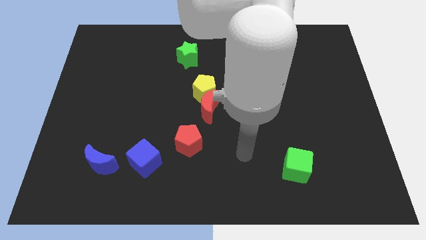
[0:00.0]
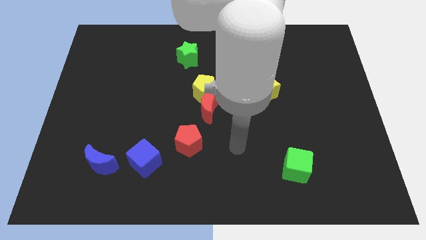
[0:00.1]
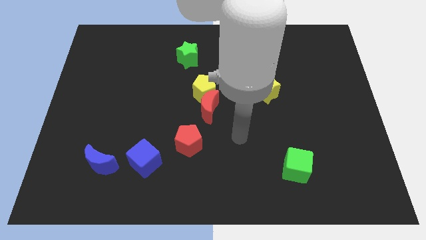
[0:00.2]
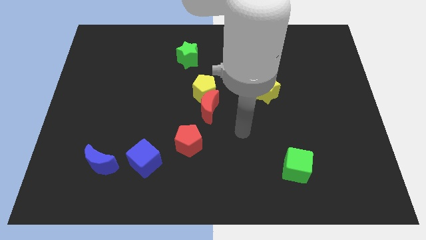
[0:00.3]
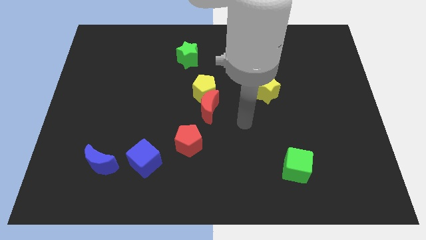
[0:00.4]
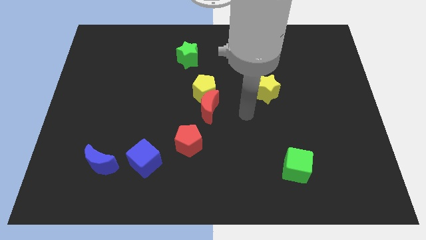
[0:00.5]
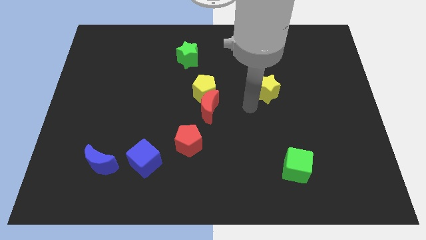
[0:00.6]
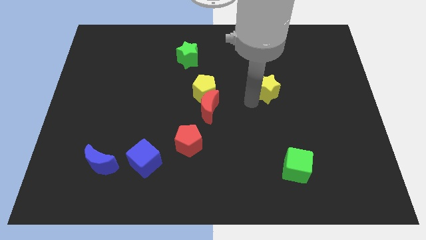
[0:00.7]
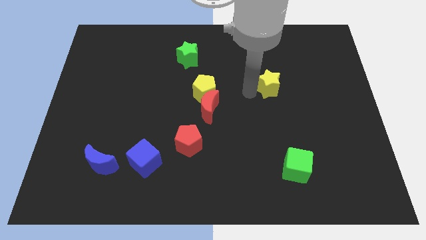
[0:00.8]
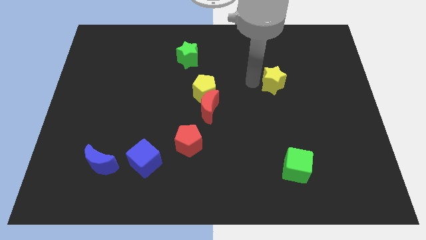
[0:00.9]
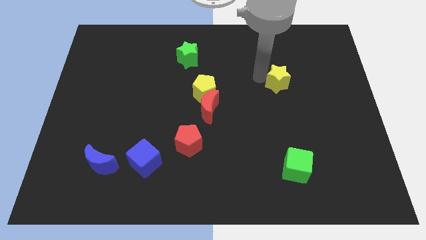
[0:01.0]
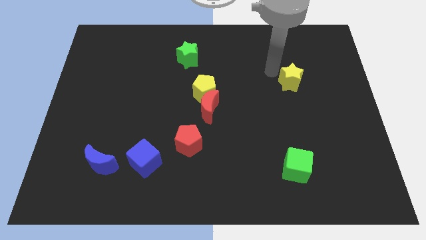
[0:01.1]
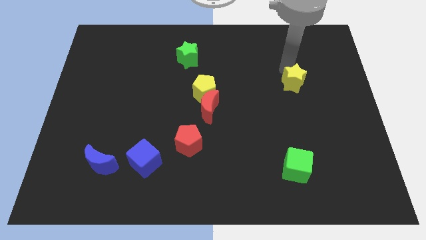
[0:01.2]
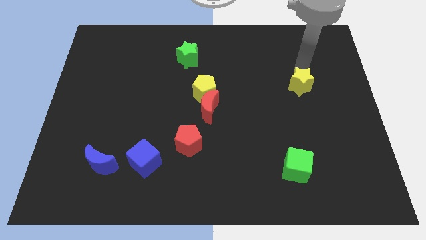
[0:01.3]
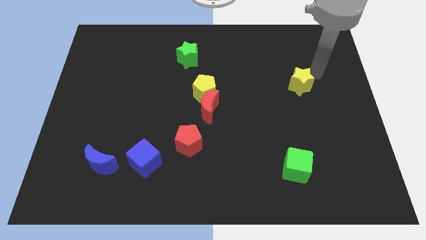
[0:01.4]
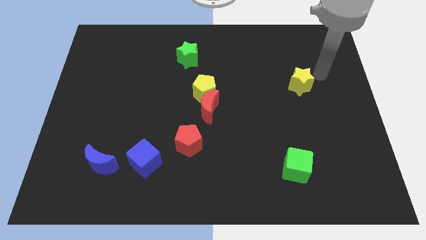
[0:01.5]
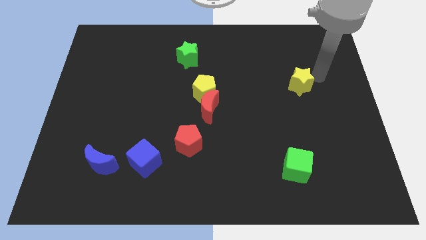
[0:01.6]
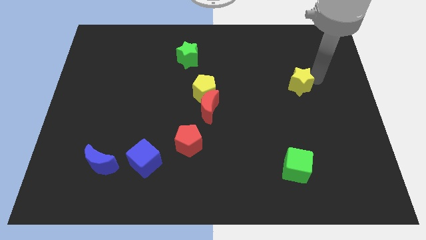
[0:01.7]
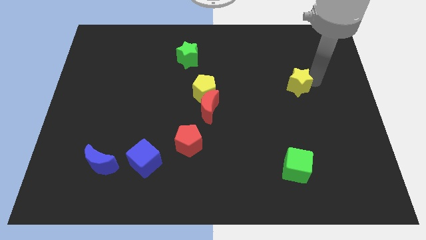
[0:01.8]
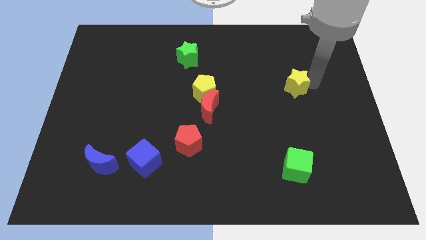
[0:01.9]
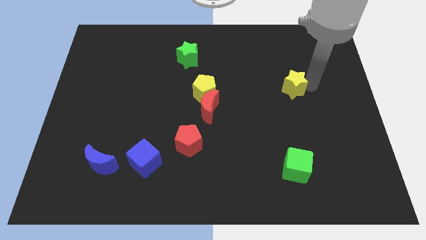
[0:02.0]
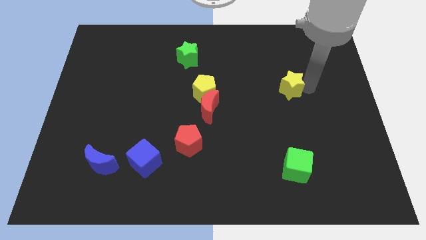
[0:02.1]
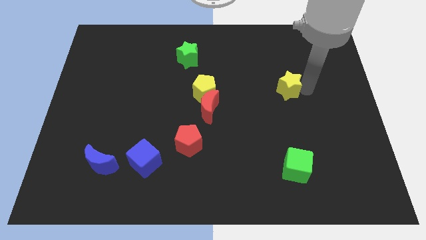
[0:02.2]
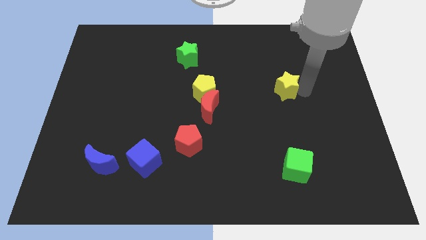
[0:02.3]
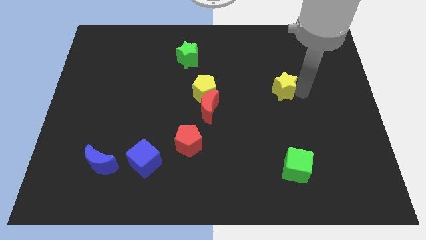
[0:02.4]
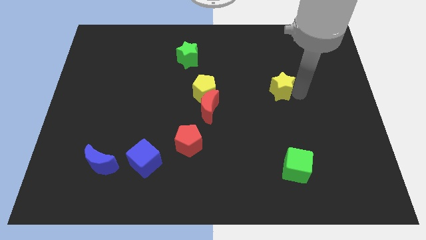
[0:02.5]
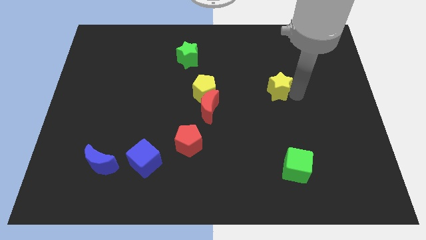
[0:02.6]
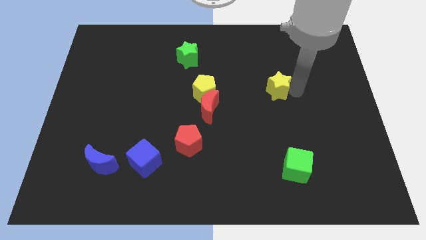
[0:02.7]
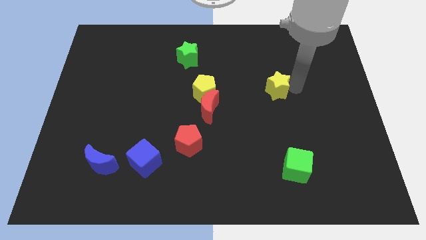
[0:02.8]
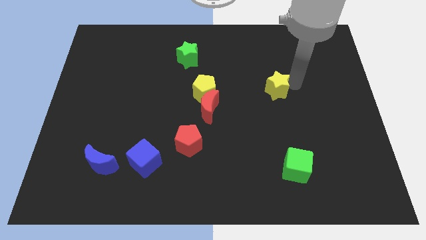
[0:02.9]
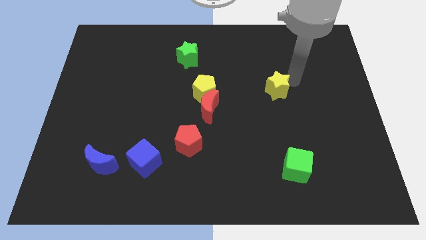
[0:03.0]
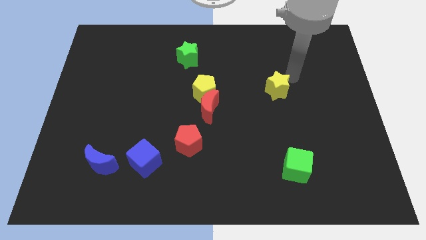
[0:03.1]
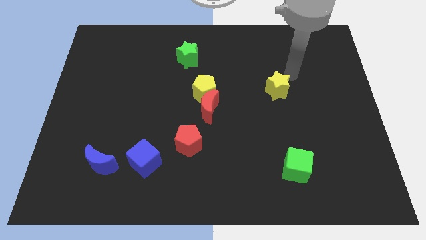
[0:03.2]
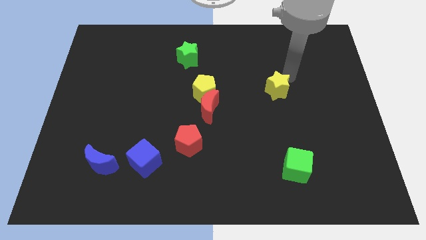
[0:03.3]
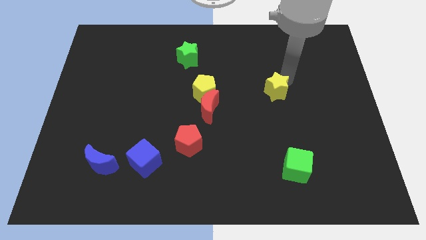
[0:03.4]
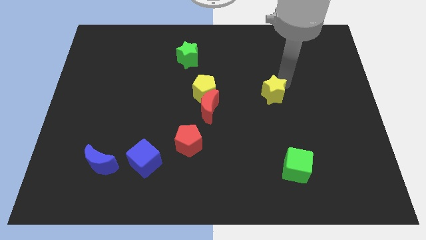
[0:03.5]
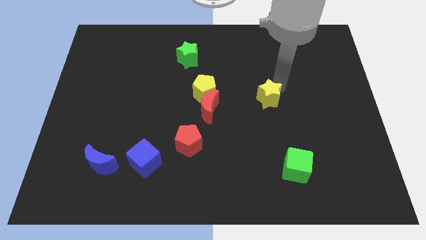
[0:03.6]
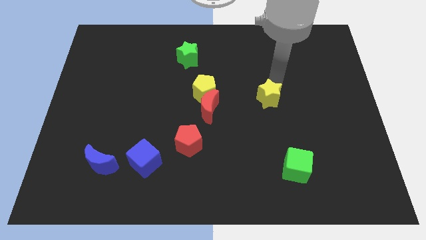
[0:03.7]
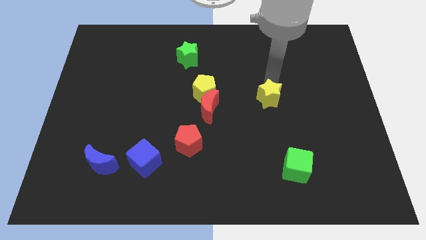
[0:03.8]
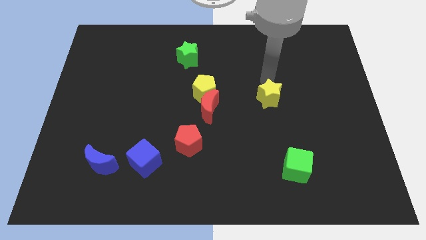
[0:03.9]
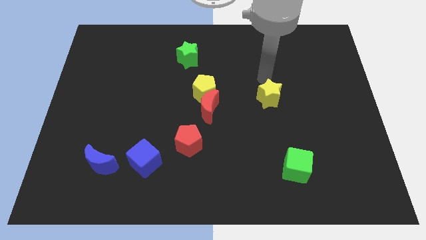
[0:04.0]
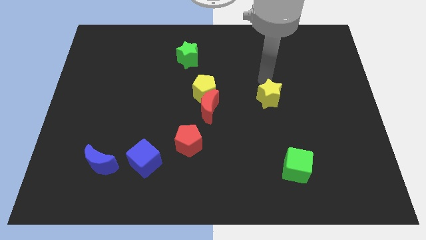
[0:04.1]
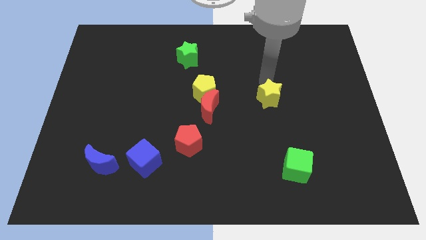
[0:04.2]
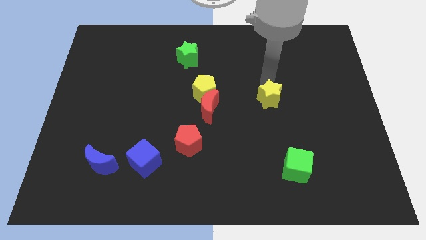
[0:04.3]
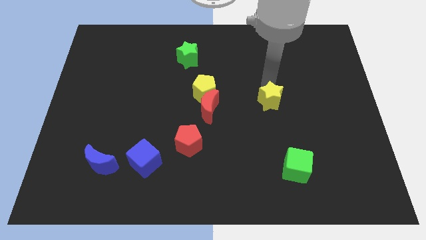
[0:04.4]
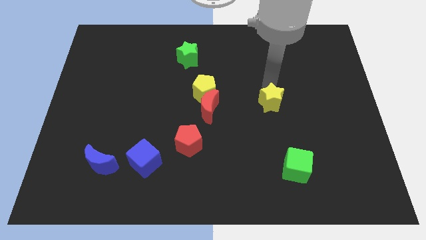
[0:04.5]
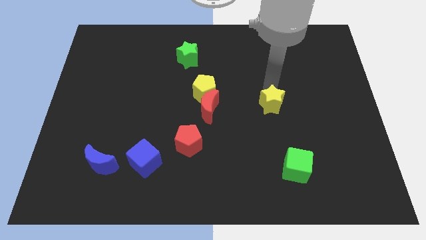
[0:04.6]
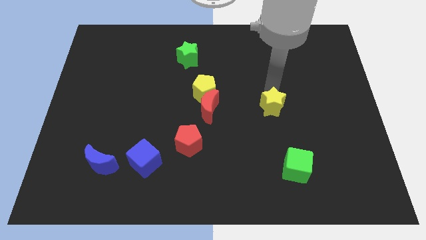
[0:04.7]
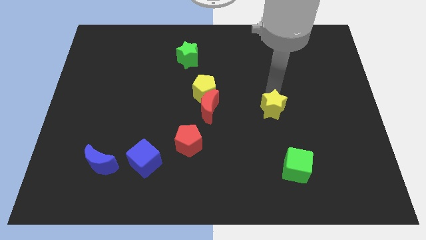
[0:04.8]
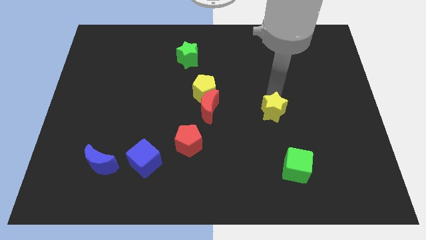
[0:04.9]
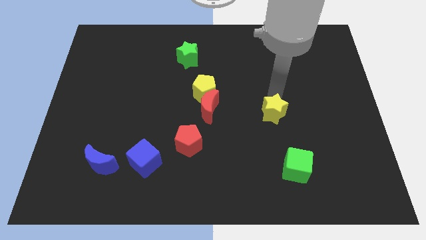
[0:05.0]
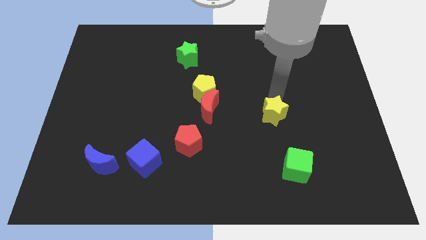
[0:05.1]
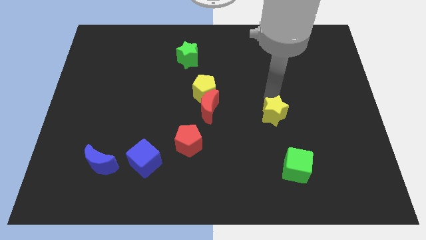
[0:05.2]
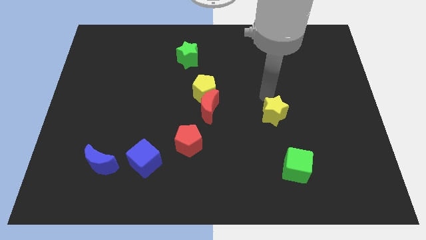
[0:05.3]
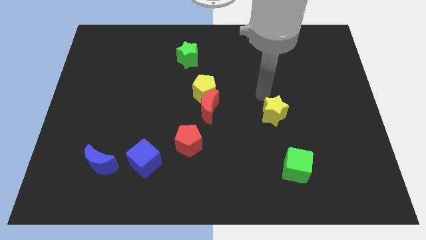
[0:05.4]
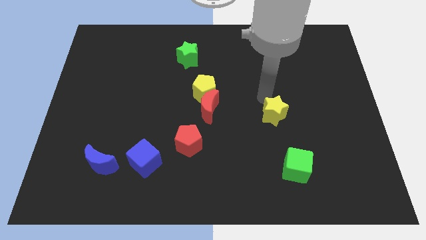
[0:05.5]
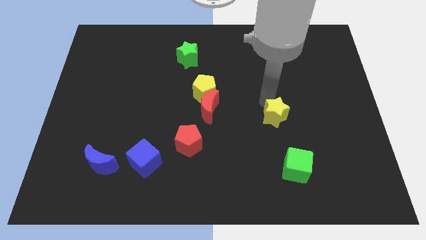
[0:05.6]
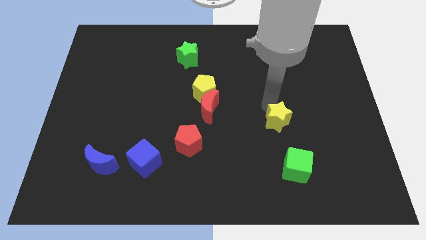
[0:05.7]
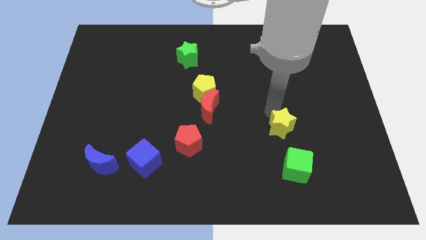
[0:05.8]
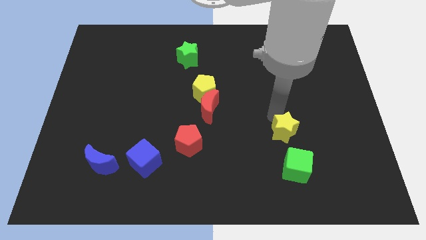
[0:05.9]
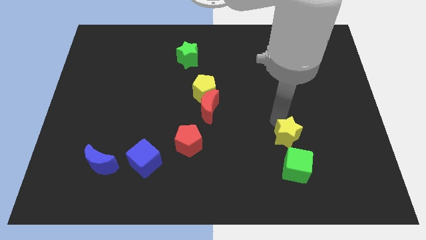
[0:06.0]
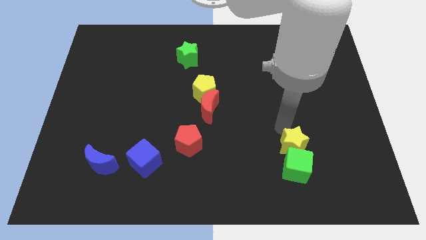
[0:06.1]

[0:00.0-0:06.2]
push the yellow star next to the green cube
